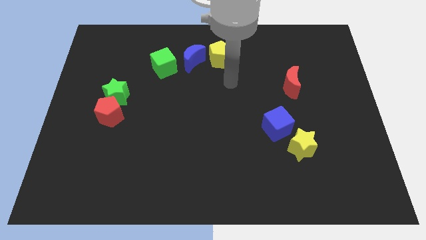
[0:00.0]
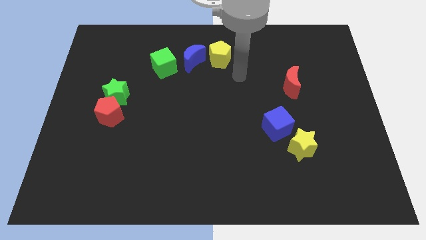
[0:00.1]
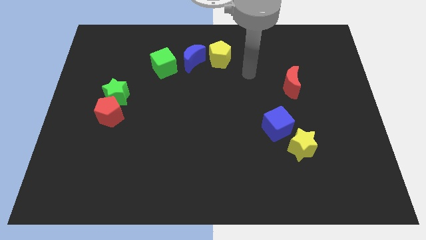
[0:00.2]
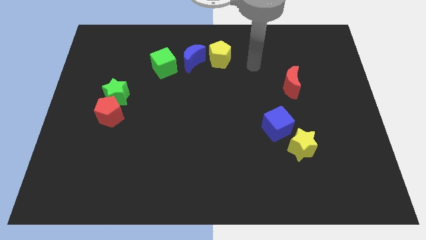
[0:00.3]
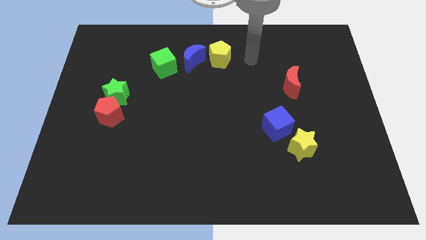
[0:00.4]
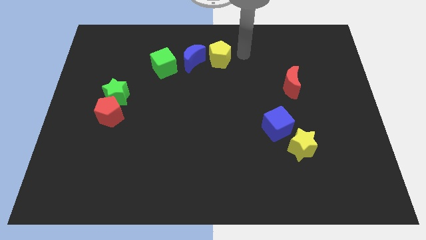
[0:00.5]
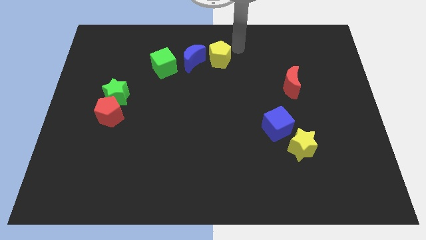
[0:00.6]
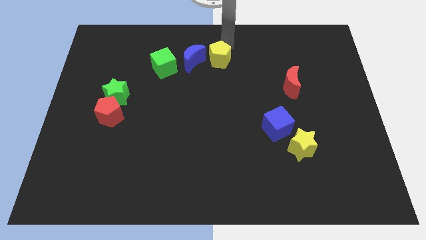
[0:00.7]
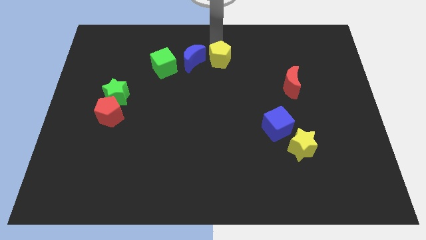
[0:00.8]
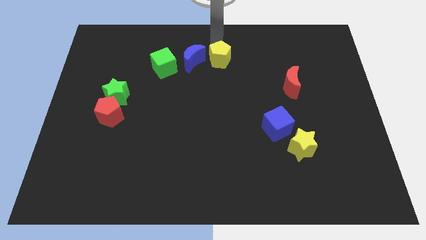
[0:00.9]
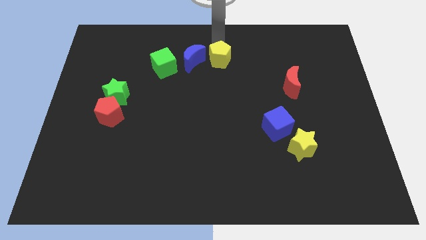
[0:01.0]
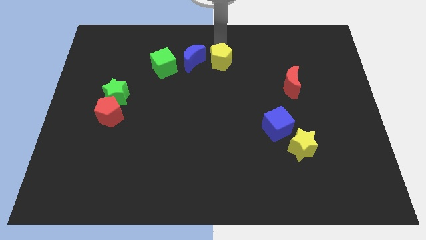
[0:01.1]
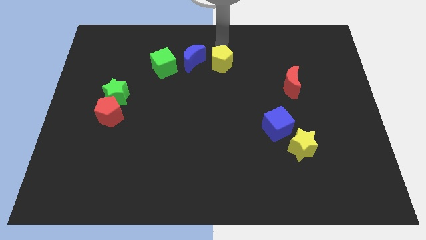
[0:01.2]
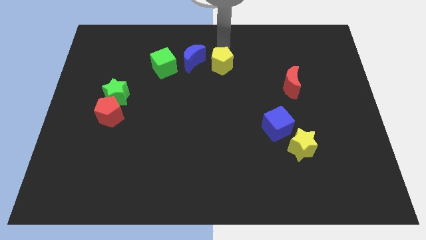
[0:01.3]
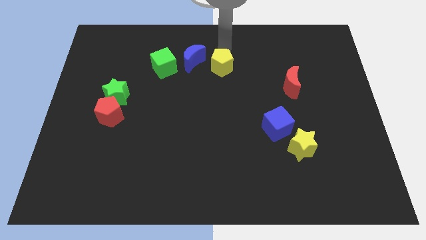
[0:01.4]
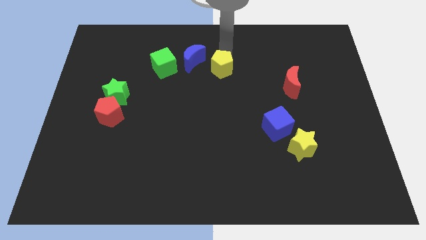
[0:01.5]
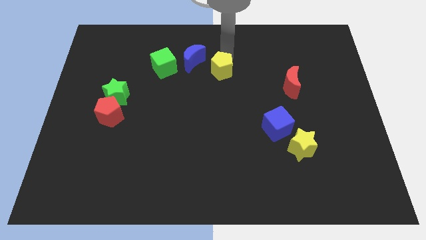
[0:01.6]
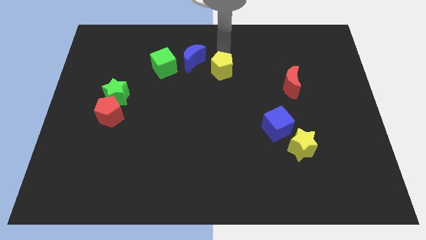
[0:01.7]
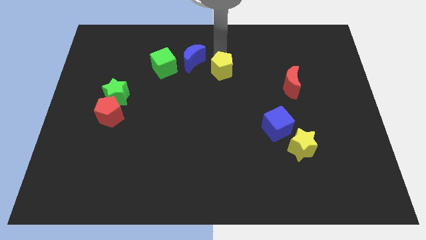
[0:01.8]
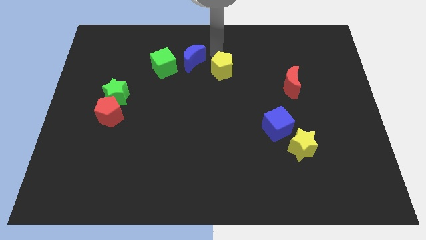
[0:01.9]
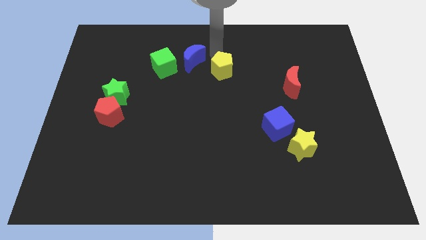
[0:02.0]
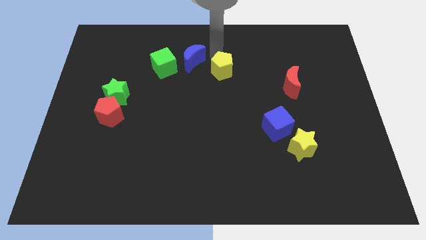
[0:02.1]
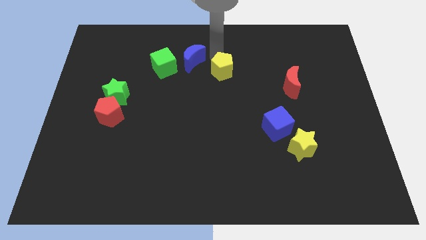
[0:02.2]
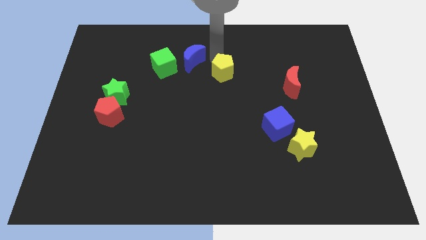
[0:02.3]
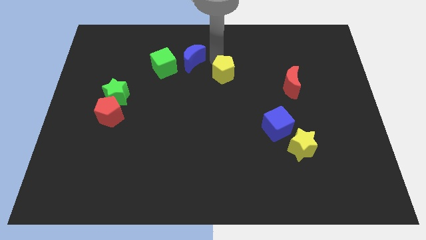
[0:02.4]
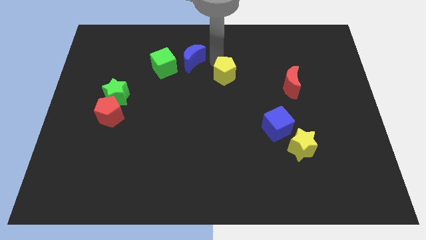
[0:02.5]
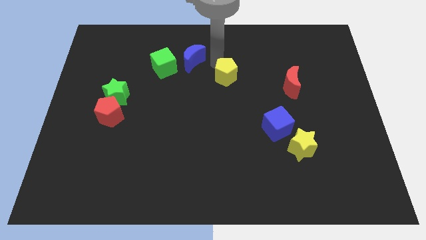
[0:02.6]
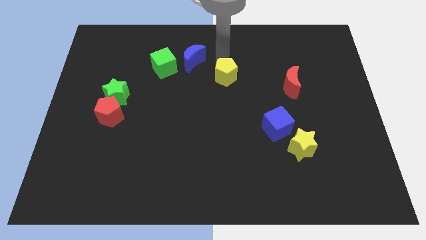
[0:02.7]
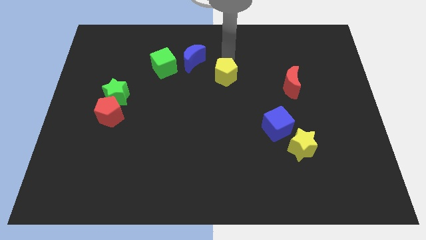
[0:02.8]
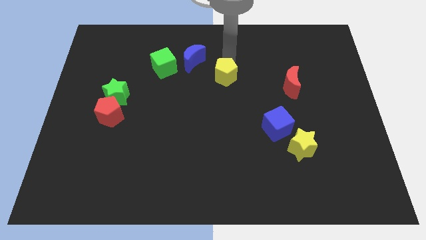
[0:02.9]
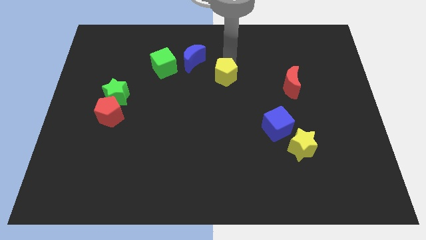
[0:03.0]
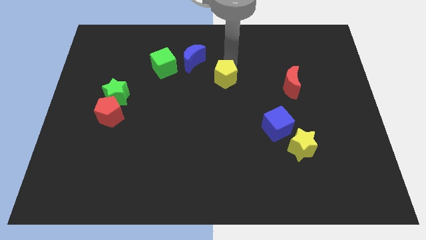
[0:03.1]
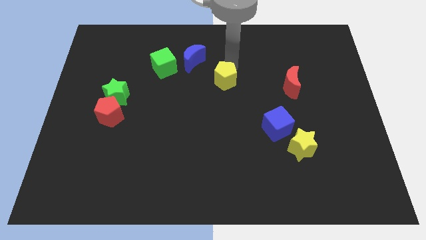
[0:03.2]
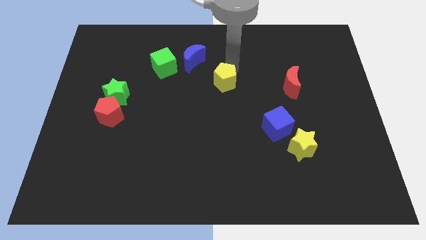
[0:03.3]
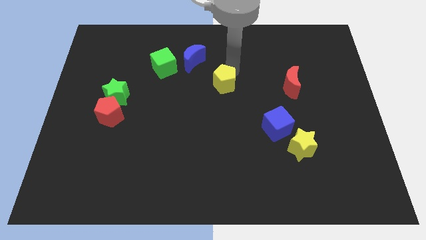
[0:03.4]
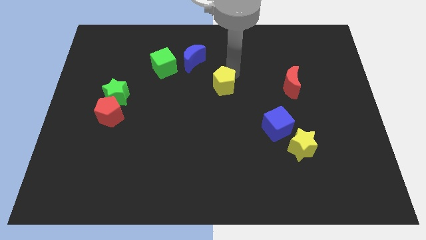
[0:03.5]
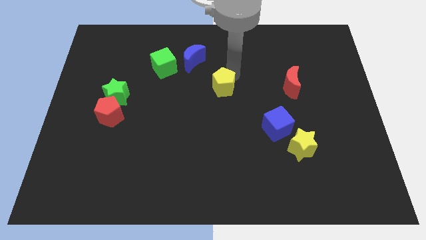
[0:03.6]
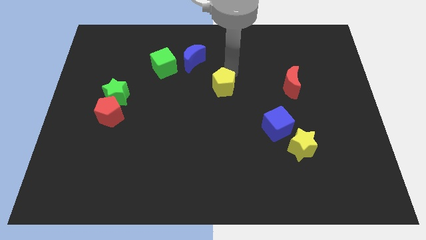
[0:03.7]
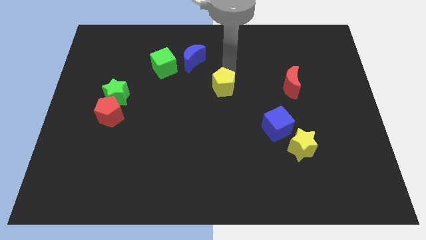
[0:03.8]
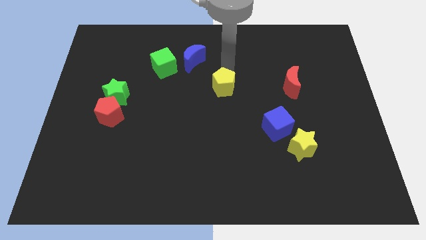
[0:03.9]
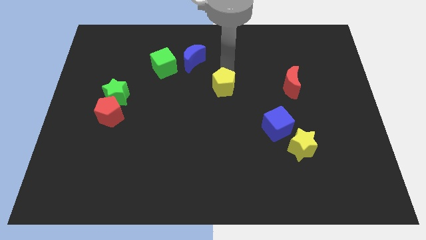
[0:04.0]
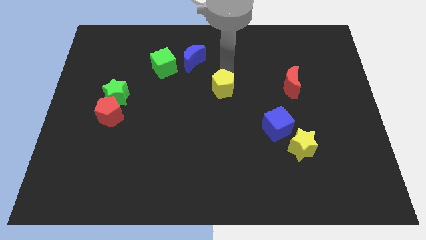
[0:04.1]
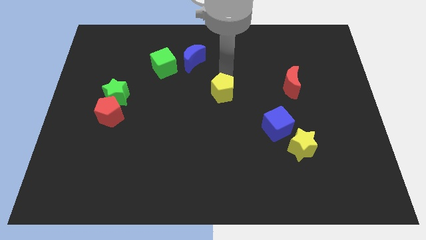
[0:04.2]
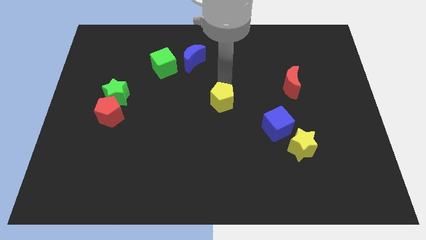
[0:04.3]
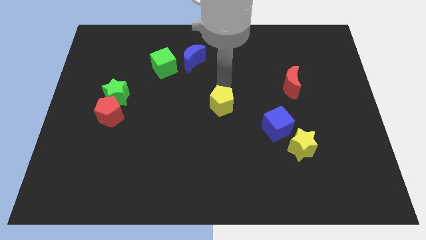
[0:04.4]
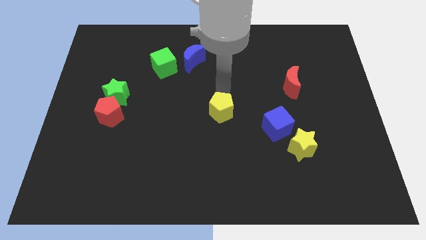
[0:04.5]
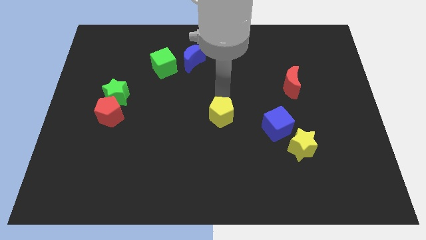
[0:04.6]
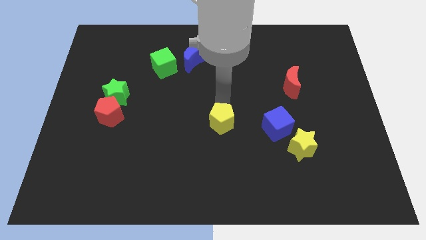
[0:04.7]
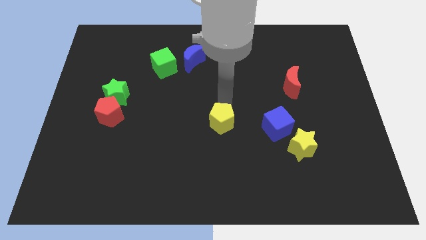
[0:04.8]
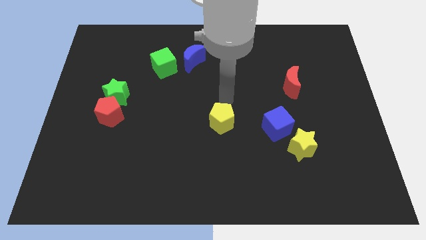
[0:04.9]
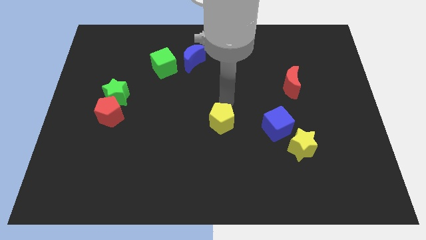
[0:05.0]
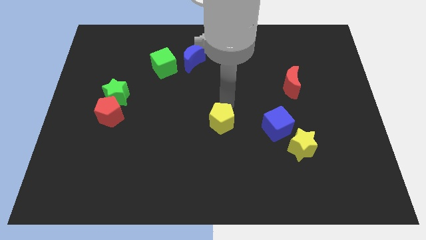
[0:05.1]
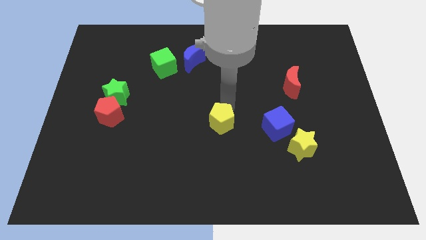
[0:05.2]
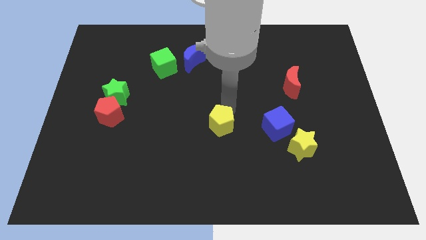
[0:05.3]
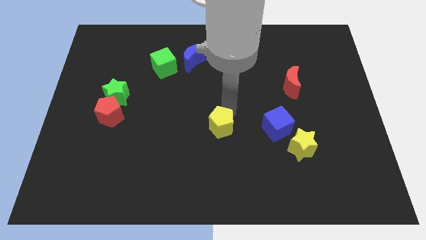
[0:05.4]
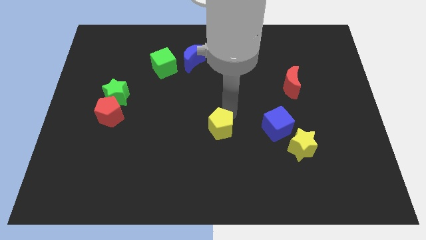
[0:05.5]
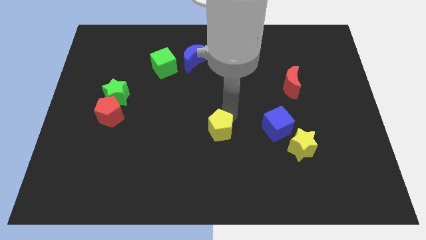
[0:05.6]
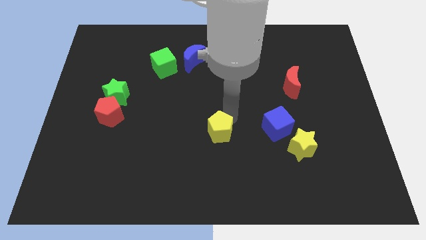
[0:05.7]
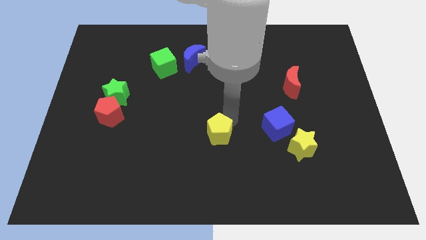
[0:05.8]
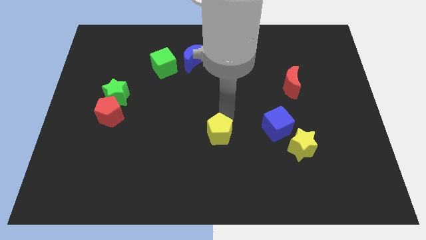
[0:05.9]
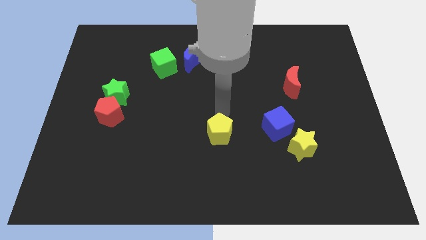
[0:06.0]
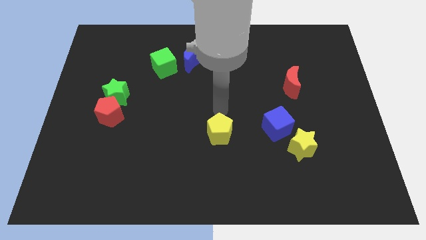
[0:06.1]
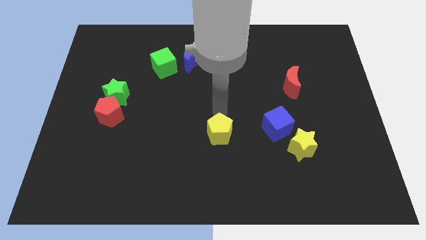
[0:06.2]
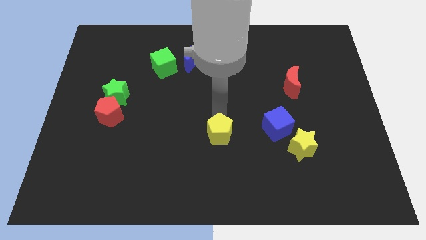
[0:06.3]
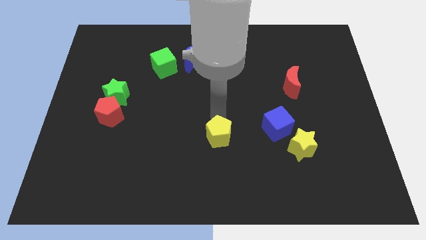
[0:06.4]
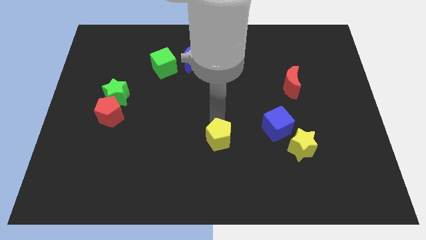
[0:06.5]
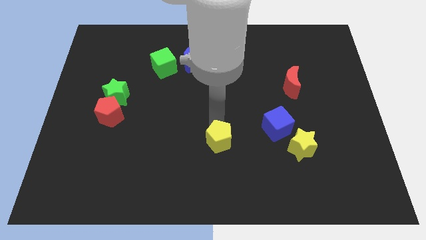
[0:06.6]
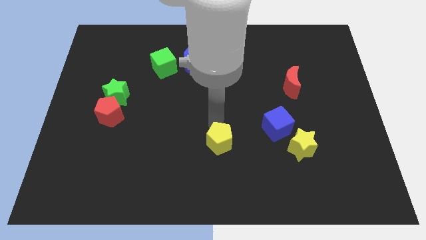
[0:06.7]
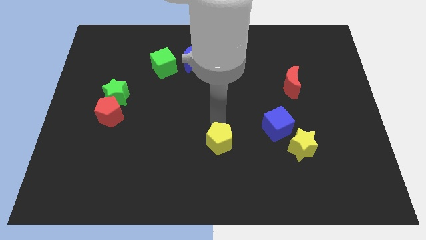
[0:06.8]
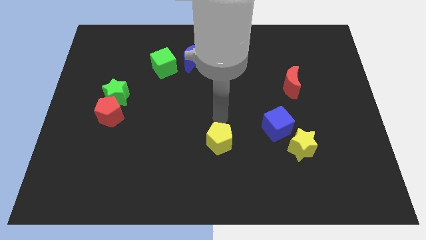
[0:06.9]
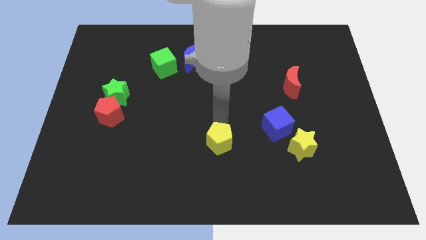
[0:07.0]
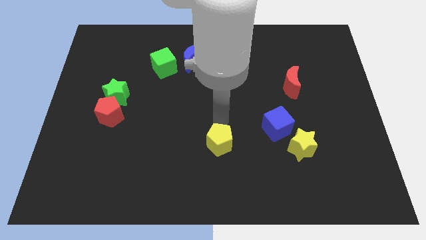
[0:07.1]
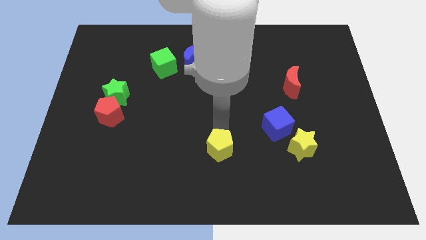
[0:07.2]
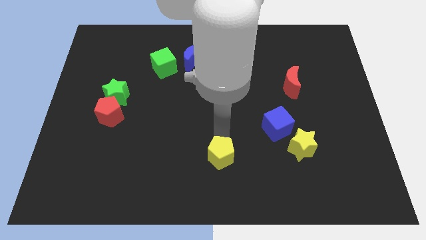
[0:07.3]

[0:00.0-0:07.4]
move the yellow pentagon to the bottom side

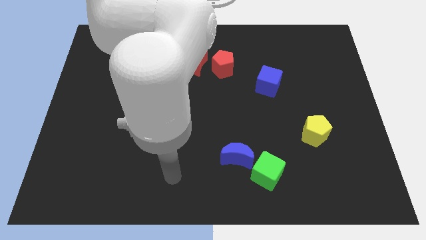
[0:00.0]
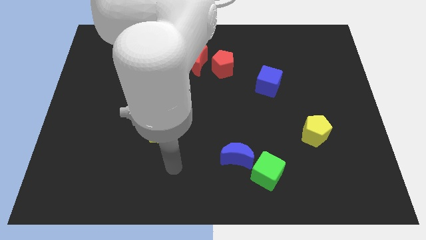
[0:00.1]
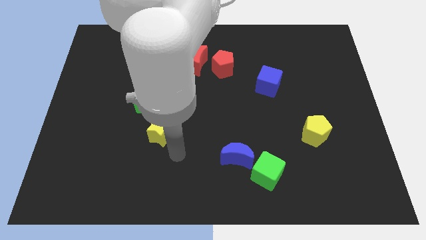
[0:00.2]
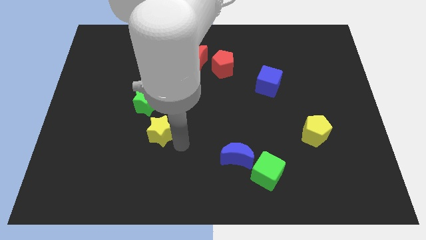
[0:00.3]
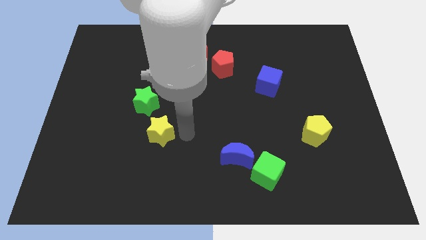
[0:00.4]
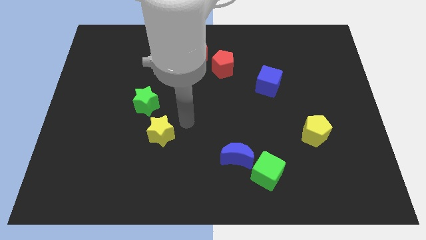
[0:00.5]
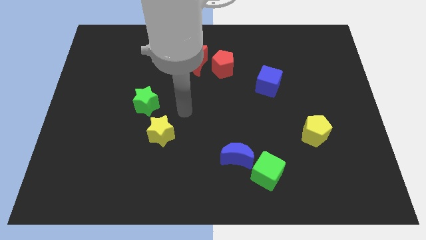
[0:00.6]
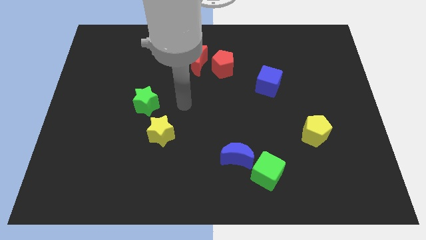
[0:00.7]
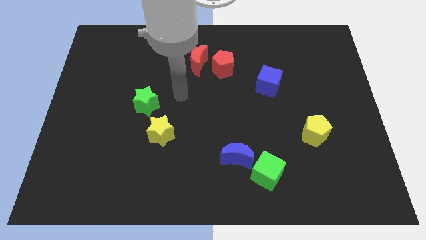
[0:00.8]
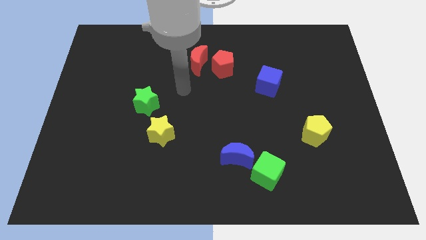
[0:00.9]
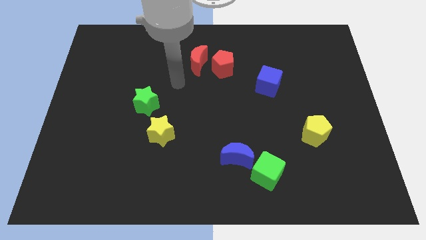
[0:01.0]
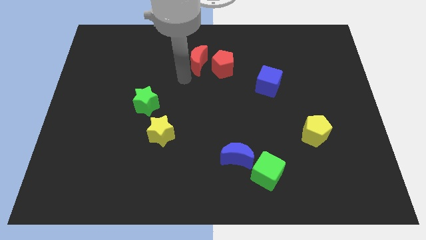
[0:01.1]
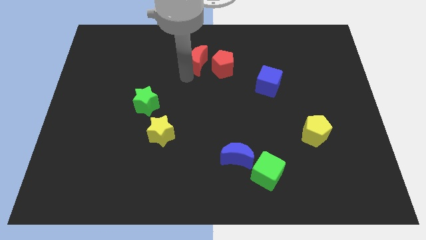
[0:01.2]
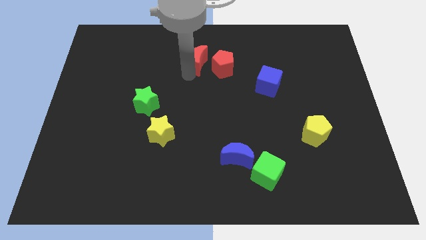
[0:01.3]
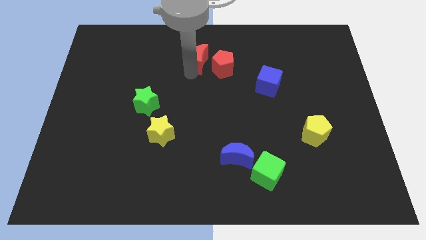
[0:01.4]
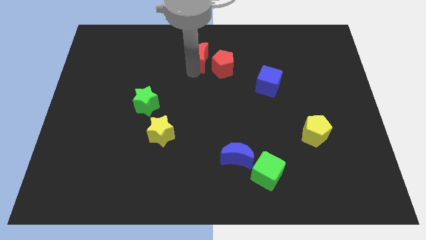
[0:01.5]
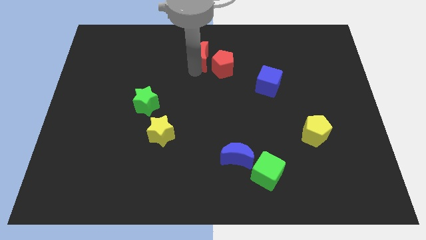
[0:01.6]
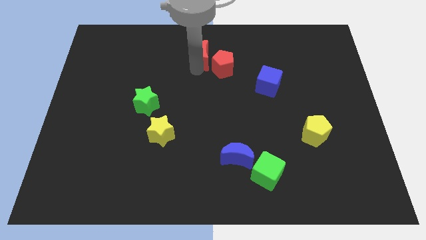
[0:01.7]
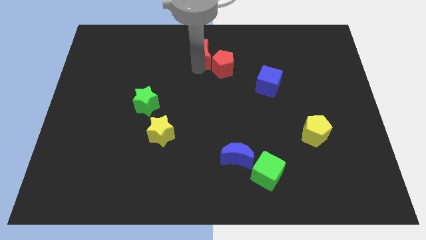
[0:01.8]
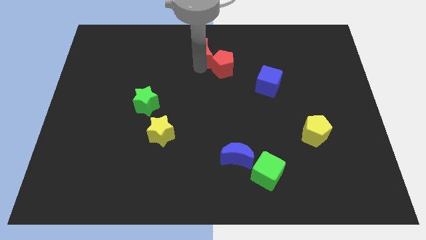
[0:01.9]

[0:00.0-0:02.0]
slide the red moon to the towards your base
